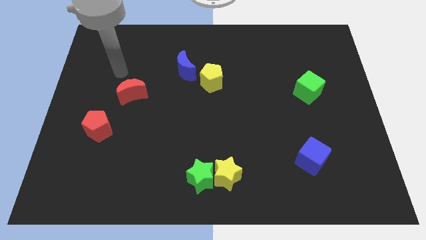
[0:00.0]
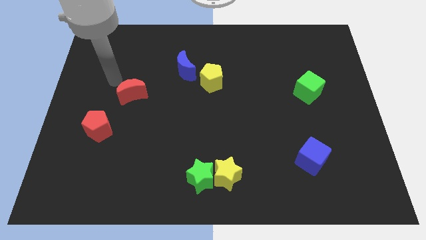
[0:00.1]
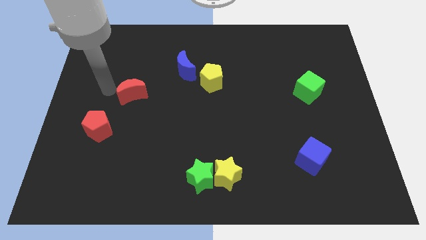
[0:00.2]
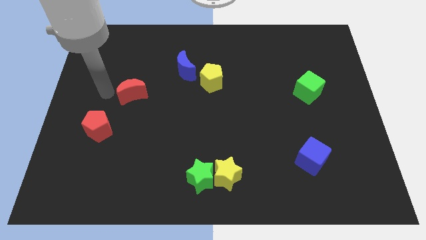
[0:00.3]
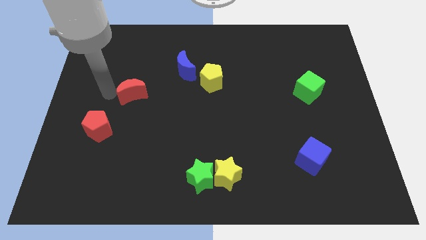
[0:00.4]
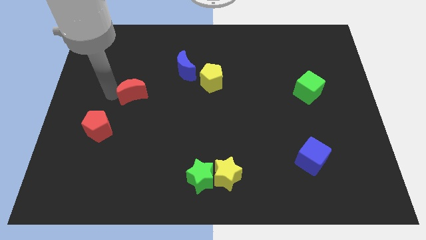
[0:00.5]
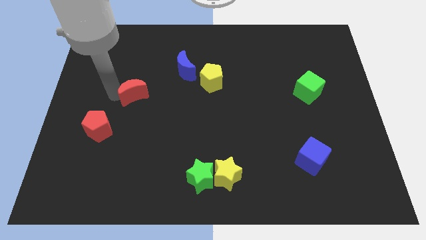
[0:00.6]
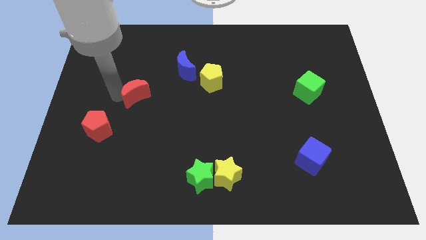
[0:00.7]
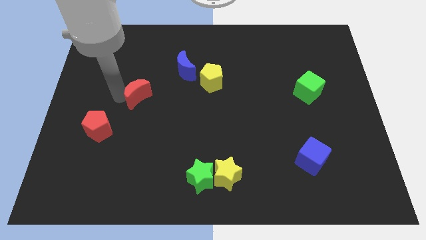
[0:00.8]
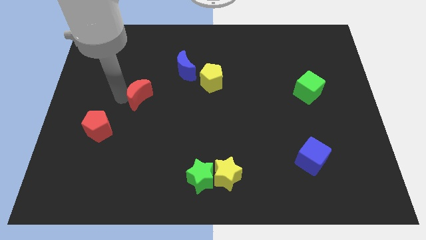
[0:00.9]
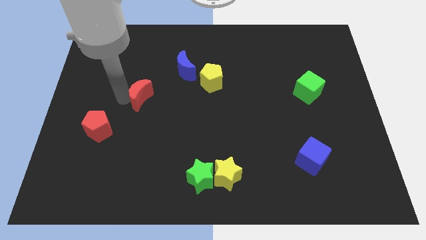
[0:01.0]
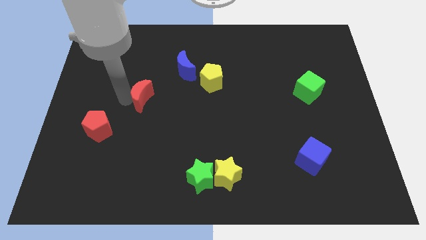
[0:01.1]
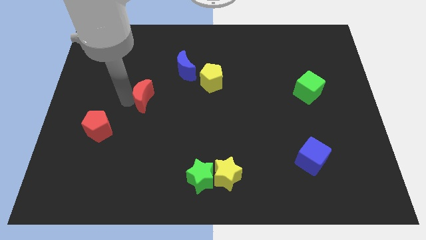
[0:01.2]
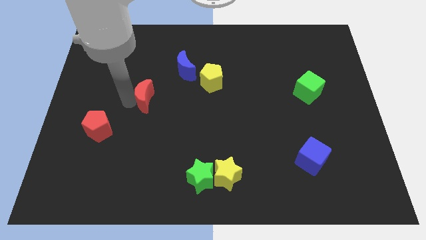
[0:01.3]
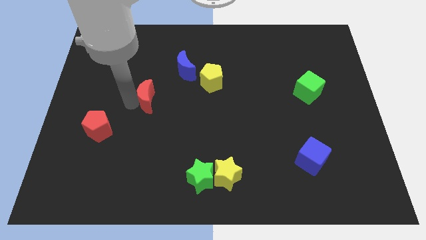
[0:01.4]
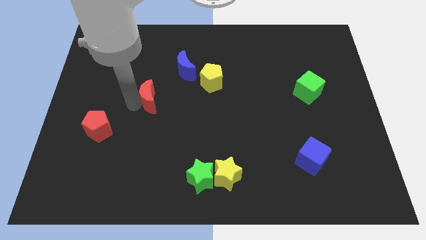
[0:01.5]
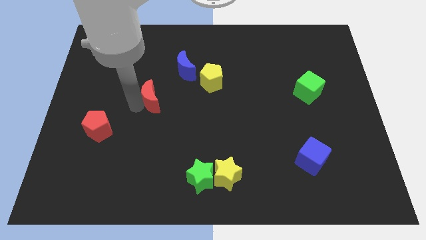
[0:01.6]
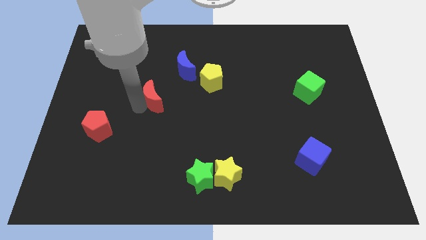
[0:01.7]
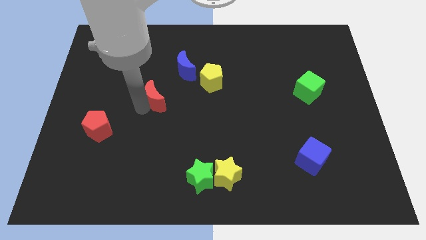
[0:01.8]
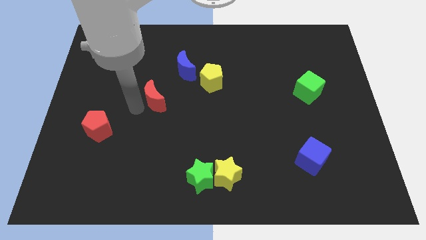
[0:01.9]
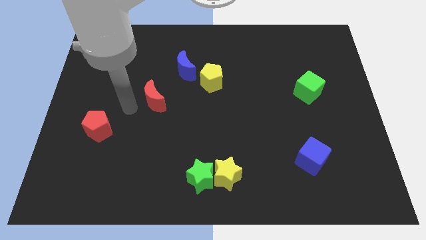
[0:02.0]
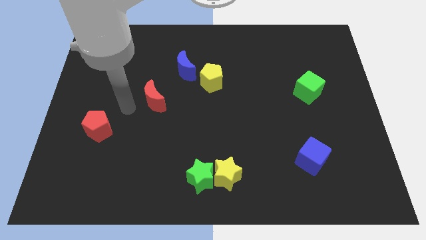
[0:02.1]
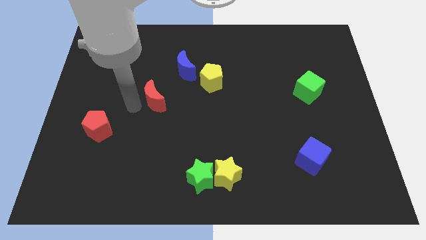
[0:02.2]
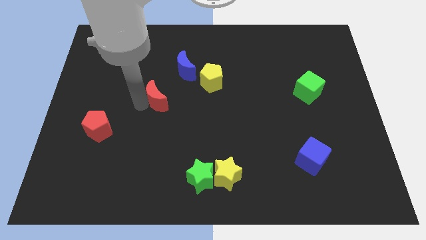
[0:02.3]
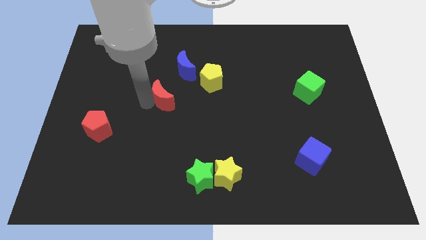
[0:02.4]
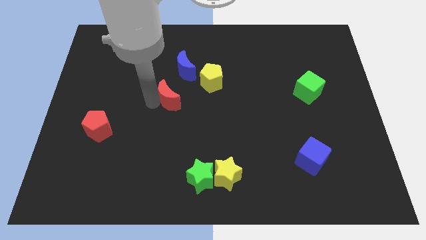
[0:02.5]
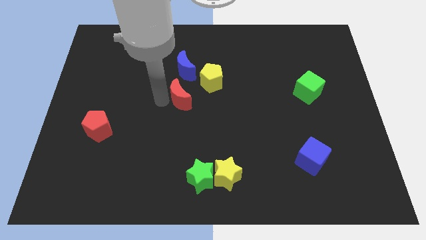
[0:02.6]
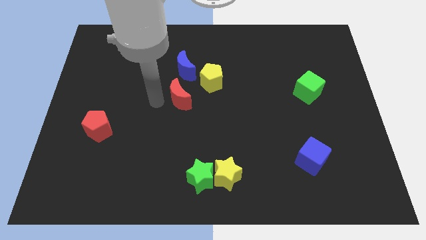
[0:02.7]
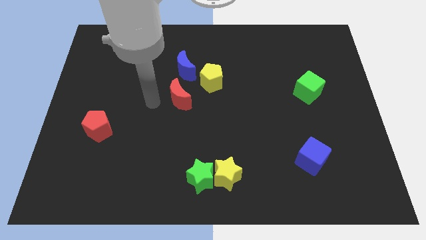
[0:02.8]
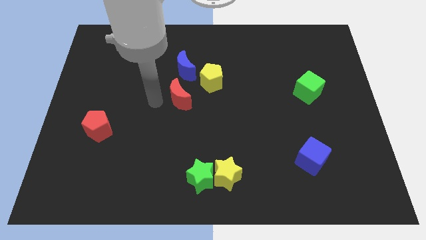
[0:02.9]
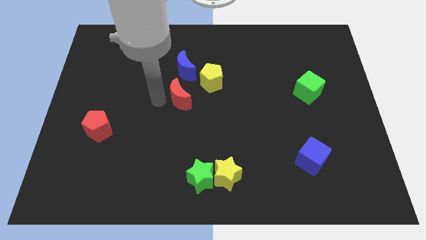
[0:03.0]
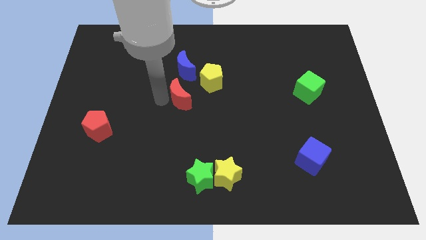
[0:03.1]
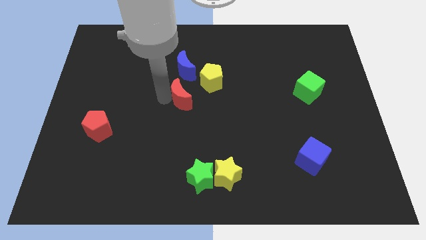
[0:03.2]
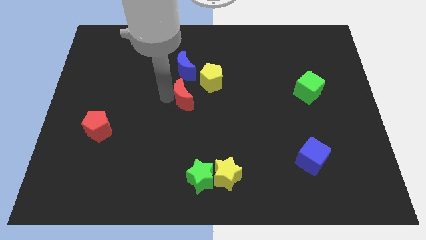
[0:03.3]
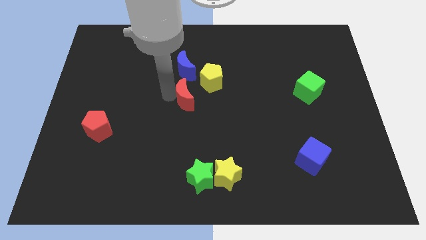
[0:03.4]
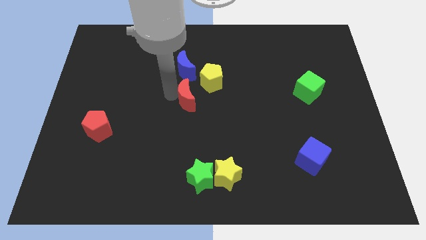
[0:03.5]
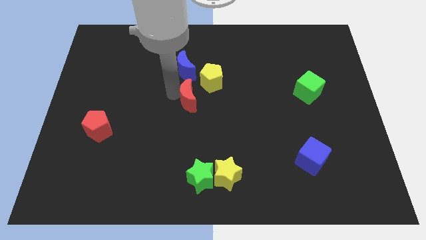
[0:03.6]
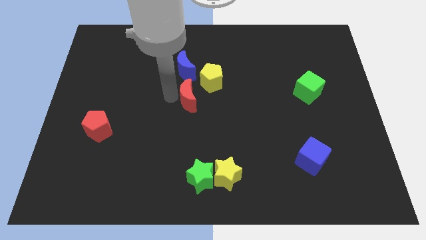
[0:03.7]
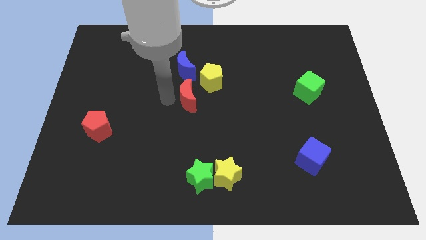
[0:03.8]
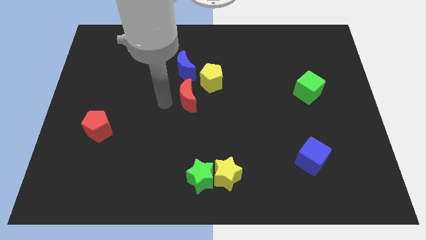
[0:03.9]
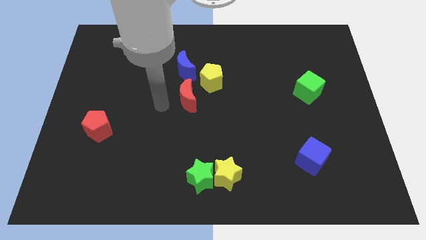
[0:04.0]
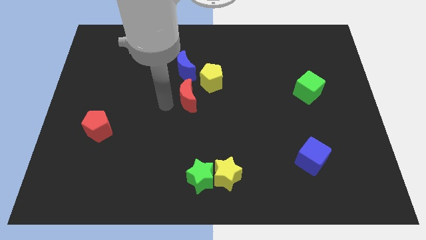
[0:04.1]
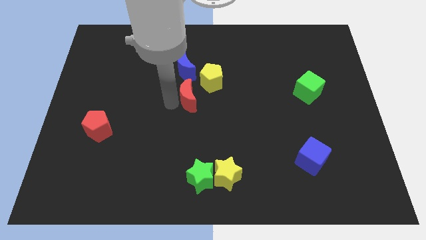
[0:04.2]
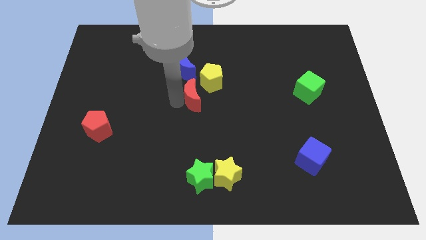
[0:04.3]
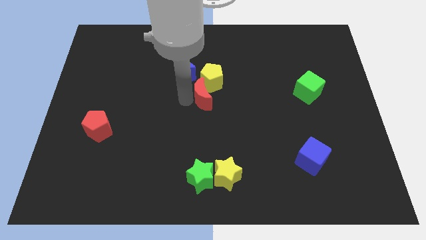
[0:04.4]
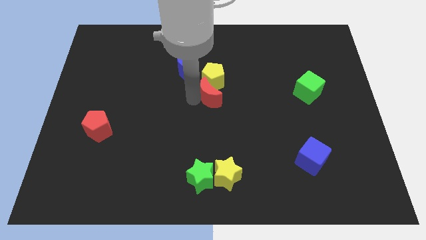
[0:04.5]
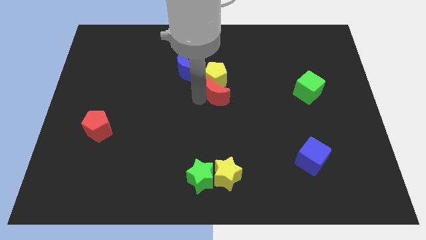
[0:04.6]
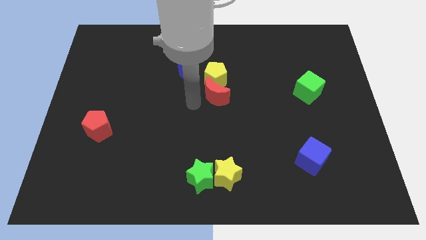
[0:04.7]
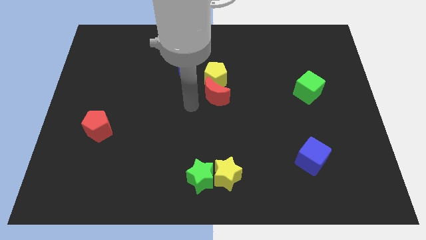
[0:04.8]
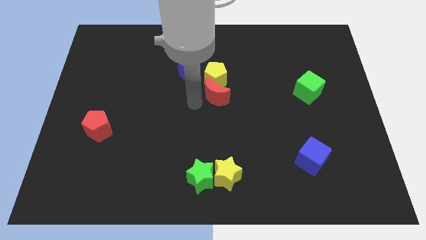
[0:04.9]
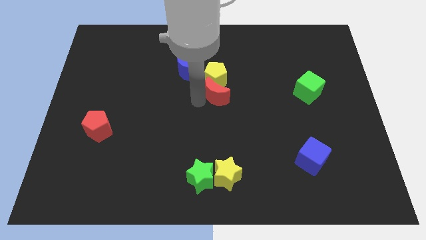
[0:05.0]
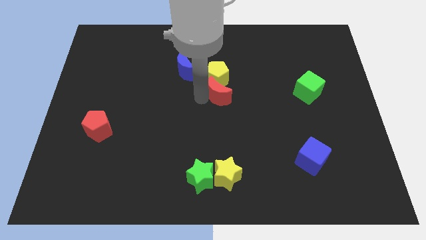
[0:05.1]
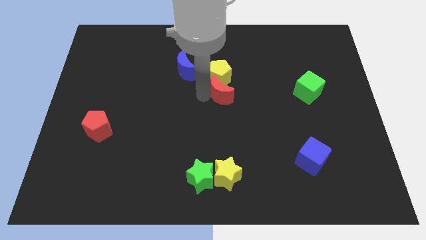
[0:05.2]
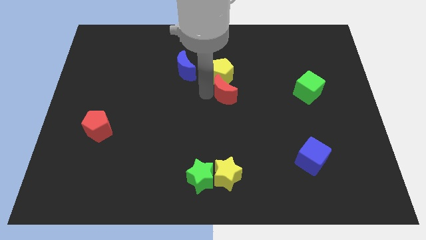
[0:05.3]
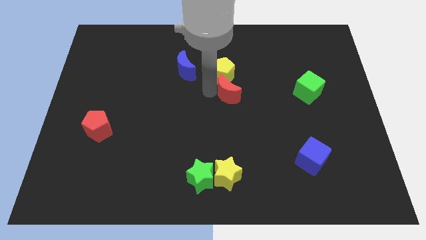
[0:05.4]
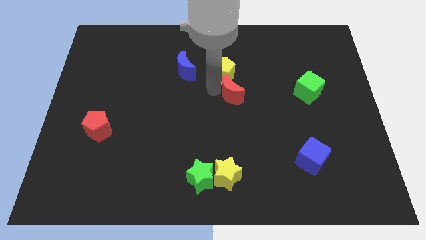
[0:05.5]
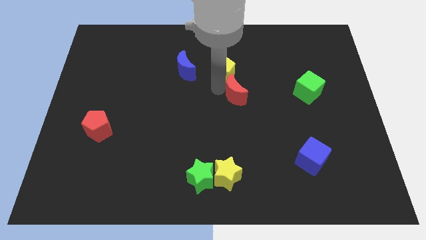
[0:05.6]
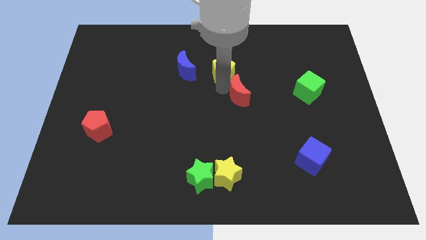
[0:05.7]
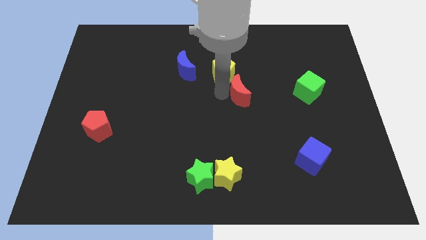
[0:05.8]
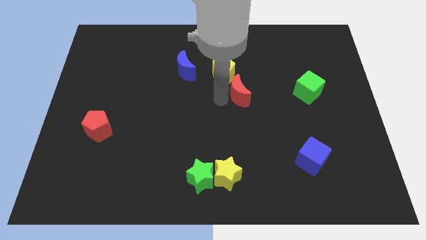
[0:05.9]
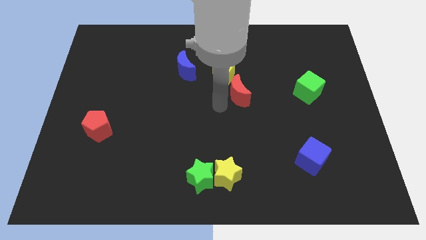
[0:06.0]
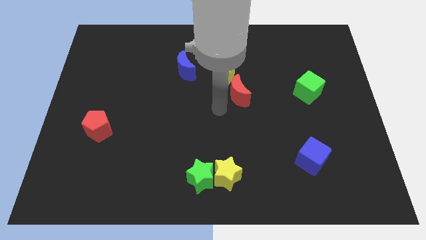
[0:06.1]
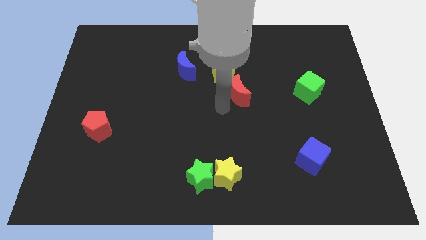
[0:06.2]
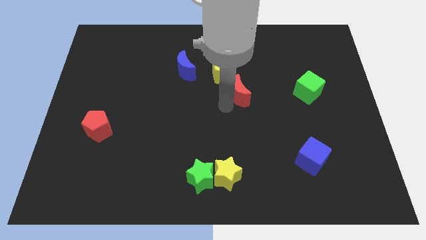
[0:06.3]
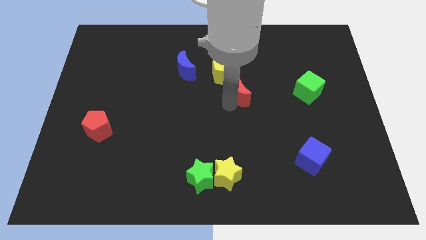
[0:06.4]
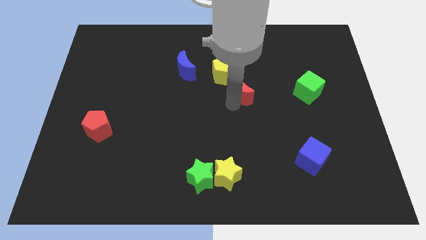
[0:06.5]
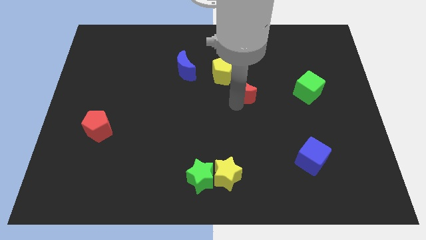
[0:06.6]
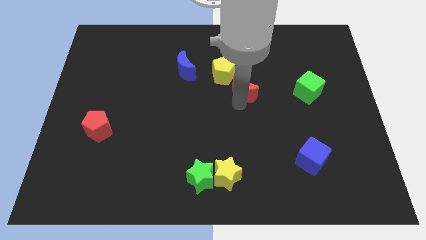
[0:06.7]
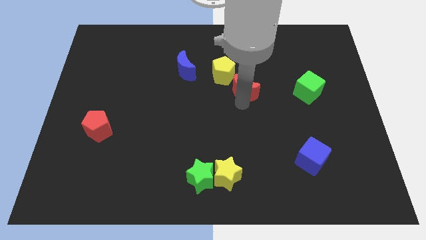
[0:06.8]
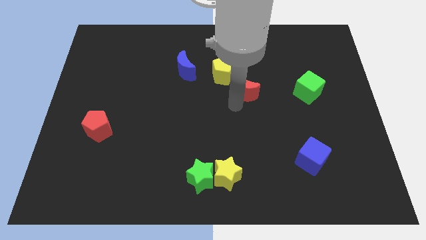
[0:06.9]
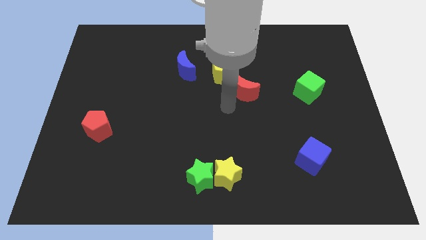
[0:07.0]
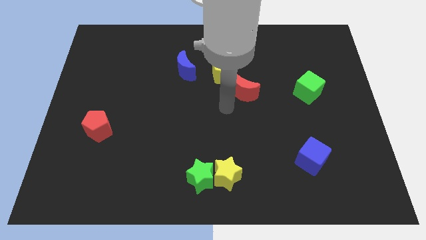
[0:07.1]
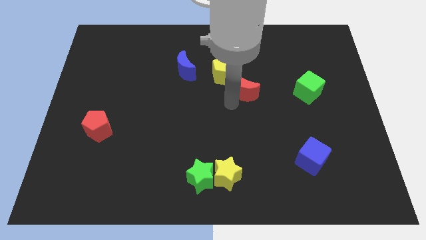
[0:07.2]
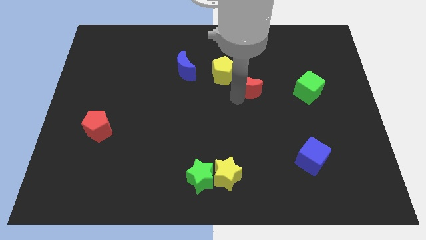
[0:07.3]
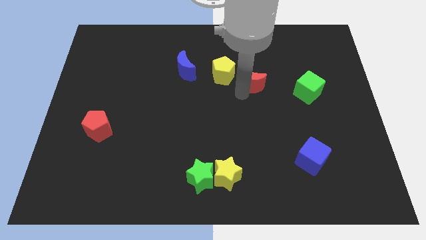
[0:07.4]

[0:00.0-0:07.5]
push the red moon to the right side of the yellow pentagon
